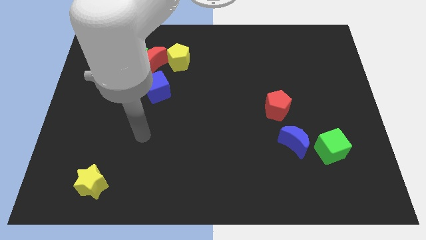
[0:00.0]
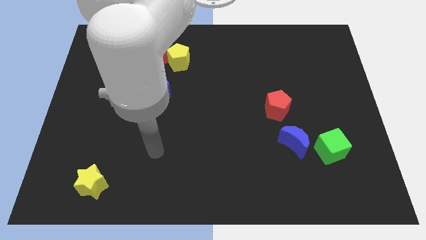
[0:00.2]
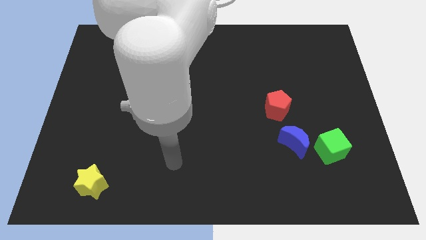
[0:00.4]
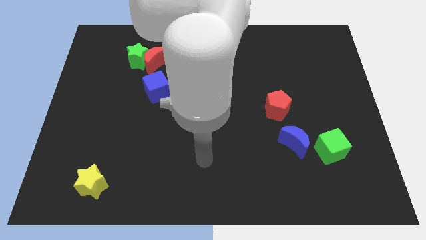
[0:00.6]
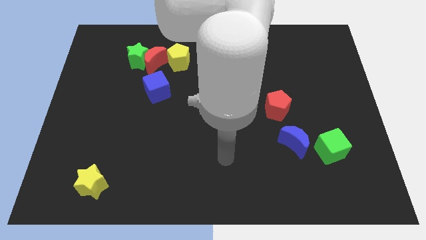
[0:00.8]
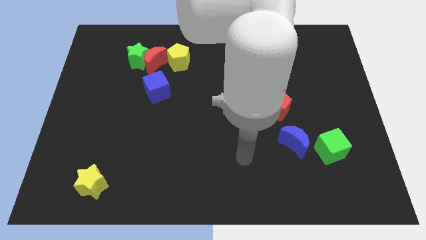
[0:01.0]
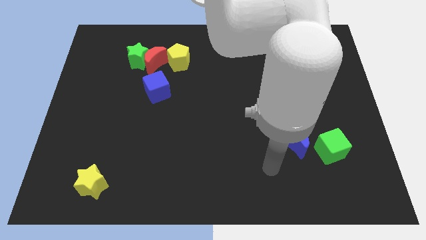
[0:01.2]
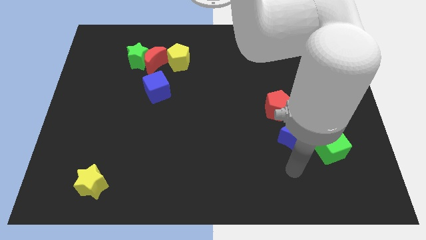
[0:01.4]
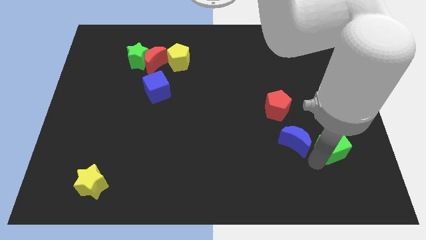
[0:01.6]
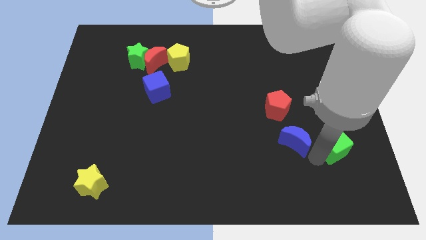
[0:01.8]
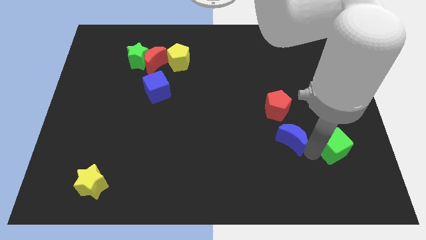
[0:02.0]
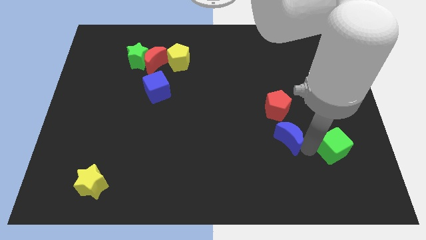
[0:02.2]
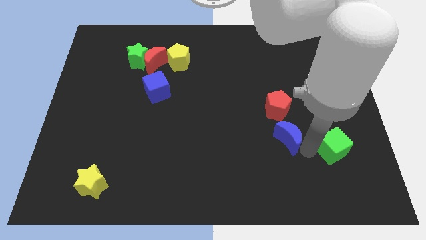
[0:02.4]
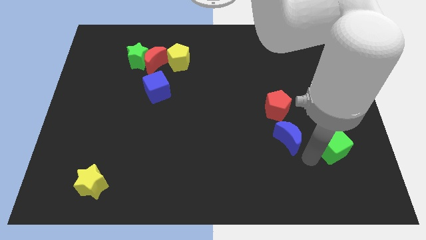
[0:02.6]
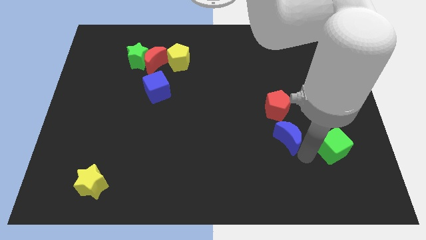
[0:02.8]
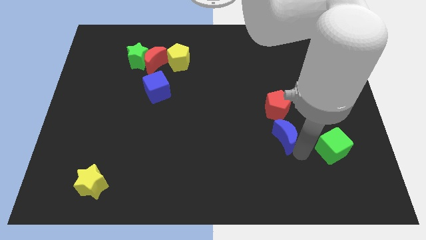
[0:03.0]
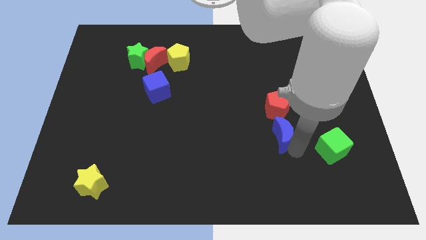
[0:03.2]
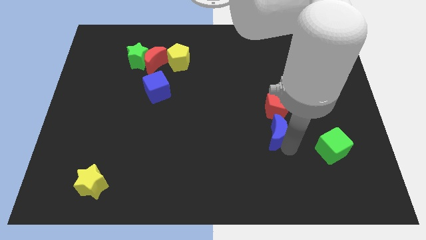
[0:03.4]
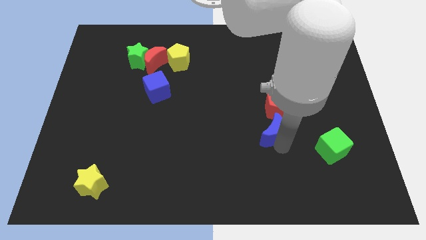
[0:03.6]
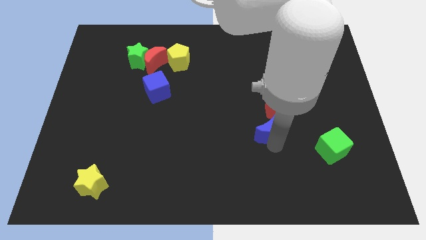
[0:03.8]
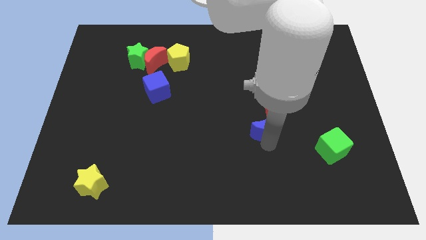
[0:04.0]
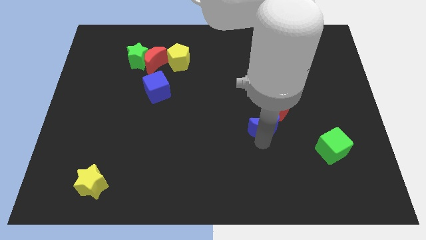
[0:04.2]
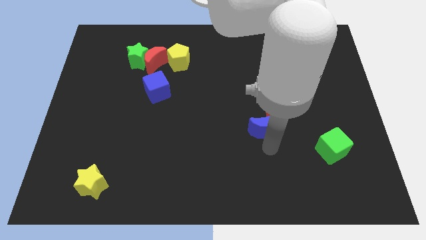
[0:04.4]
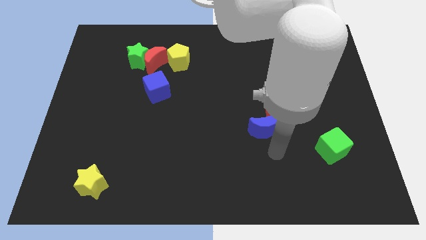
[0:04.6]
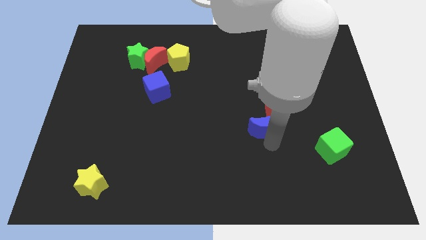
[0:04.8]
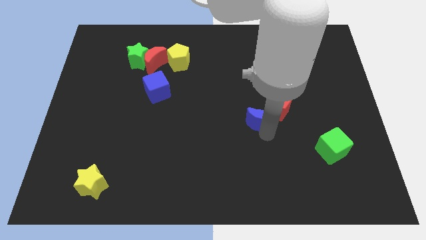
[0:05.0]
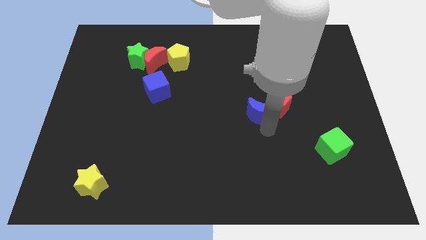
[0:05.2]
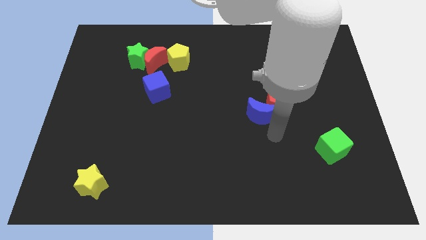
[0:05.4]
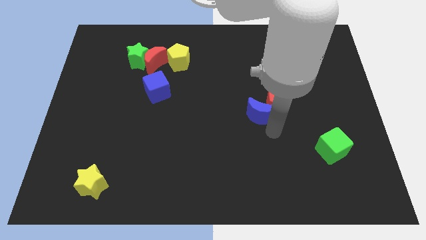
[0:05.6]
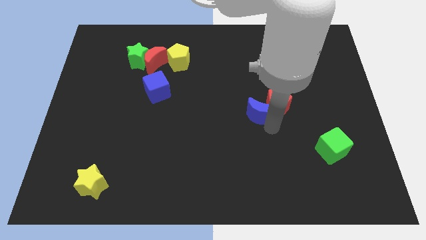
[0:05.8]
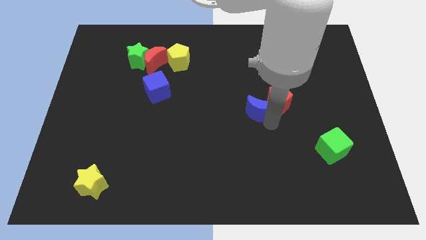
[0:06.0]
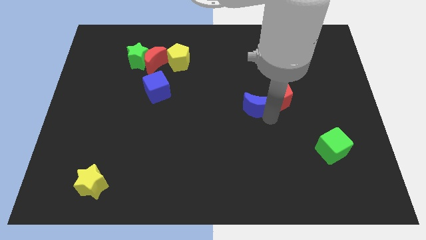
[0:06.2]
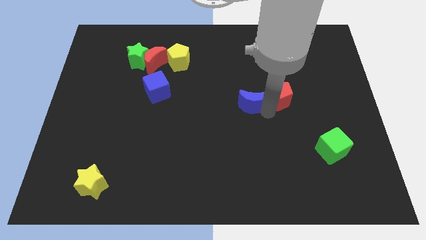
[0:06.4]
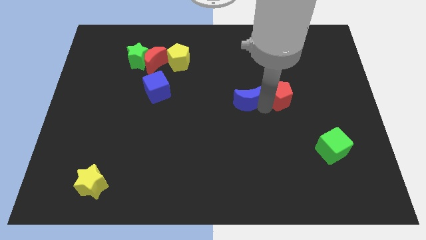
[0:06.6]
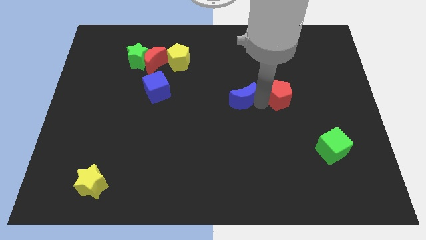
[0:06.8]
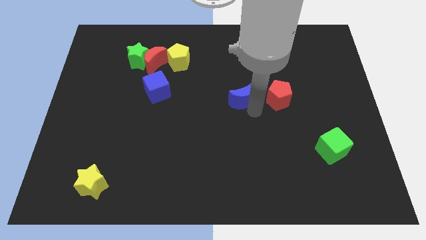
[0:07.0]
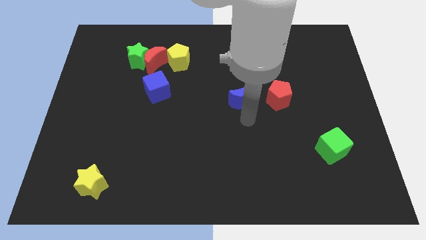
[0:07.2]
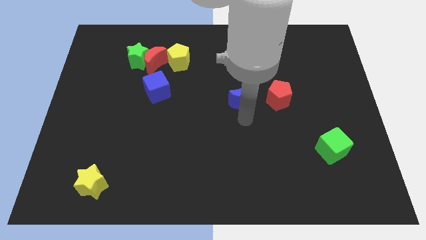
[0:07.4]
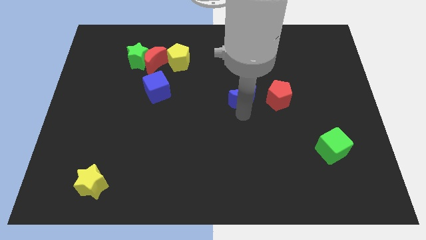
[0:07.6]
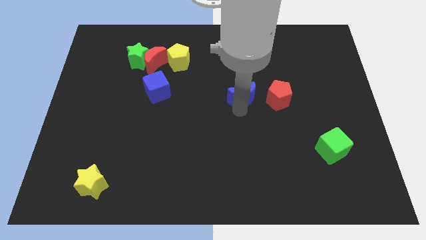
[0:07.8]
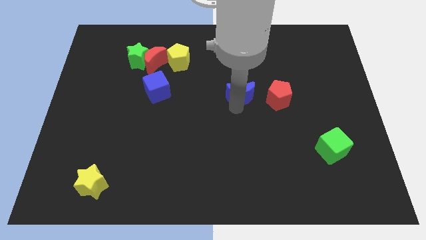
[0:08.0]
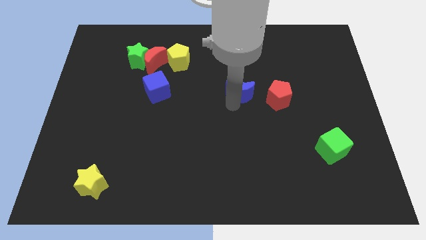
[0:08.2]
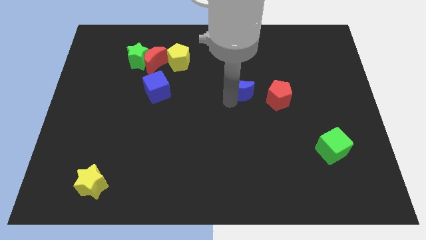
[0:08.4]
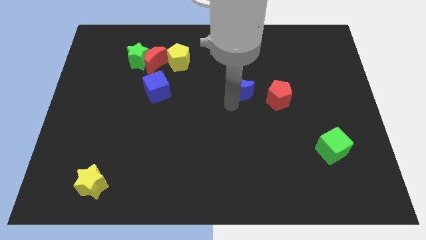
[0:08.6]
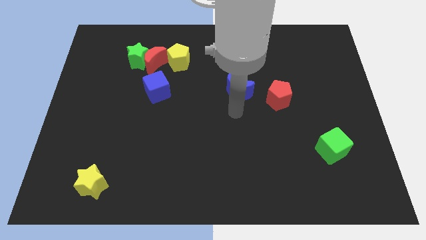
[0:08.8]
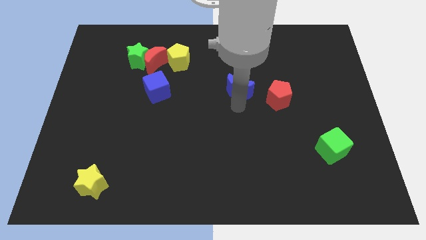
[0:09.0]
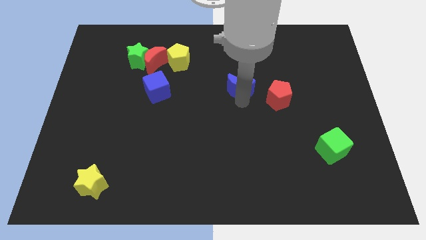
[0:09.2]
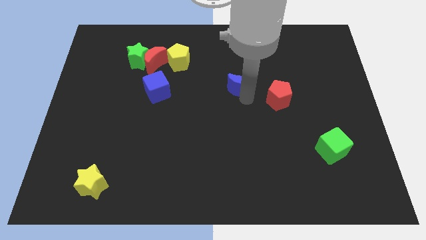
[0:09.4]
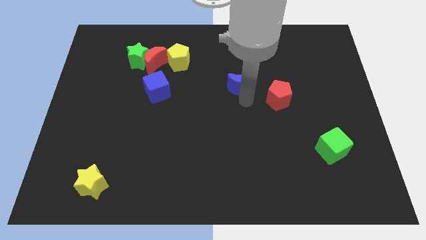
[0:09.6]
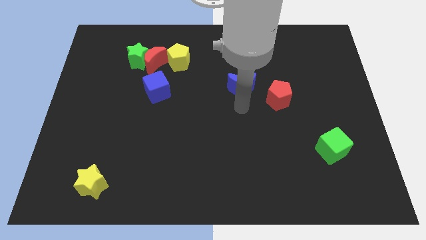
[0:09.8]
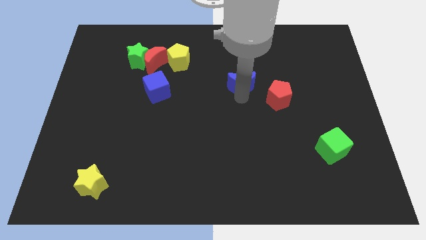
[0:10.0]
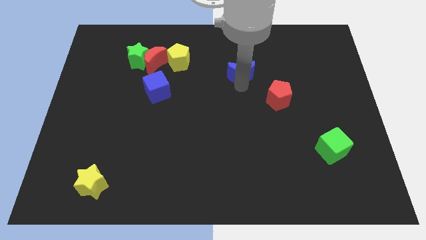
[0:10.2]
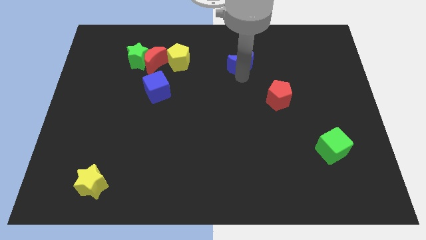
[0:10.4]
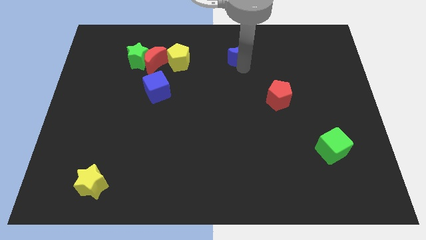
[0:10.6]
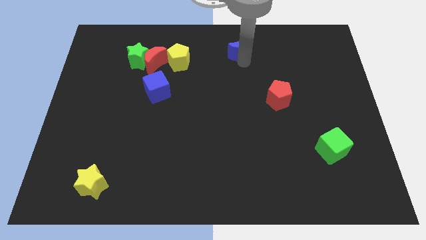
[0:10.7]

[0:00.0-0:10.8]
put the blue moon to the top

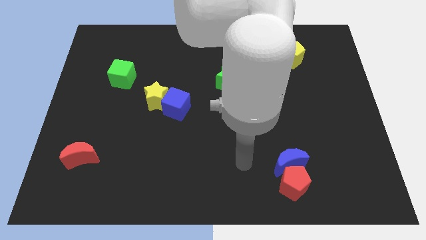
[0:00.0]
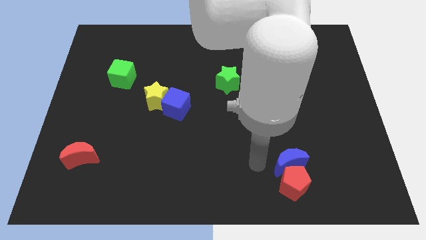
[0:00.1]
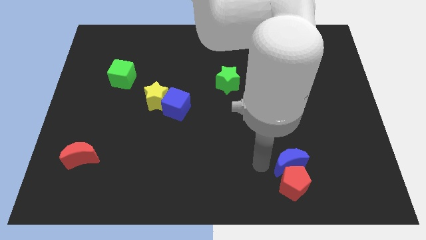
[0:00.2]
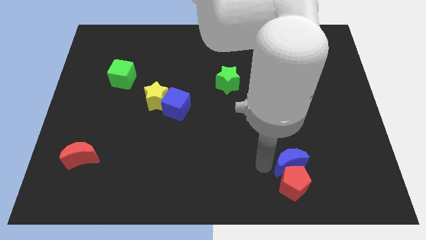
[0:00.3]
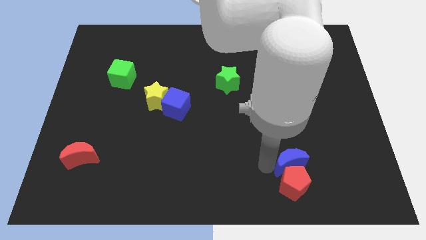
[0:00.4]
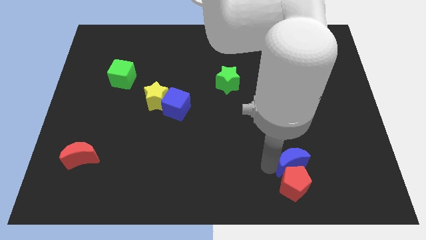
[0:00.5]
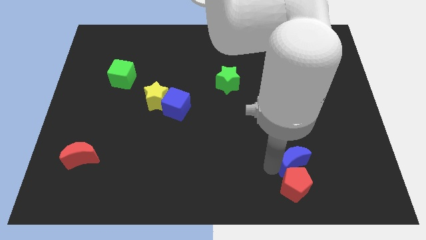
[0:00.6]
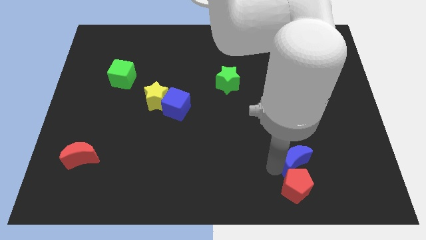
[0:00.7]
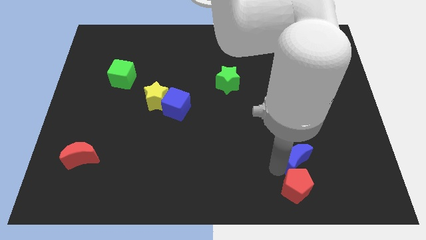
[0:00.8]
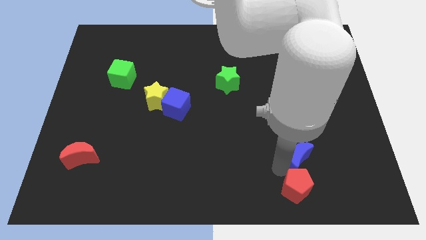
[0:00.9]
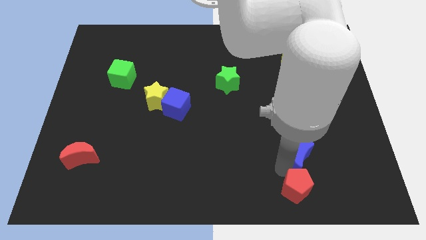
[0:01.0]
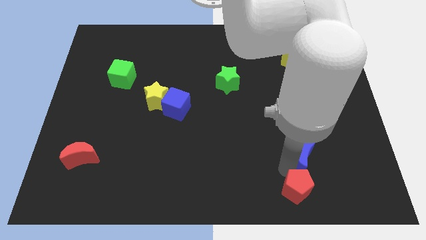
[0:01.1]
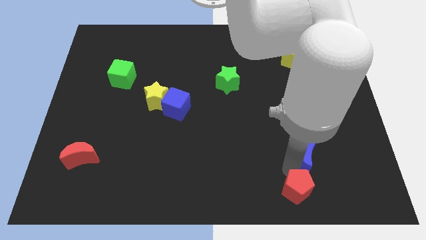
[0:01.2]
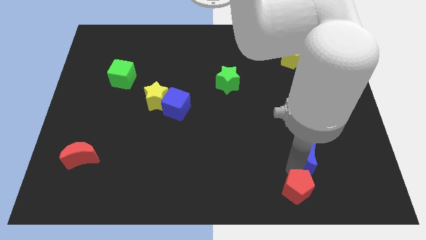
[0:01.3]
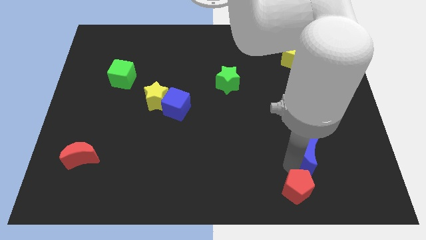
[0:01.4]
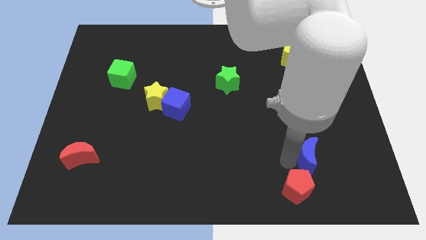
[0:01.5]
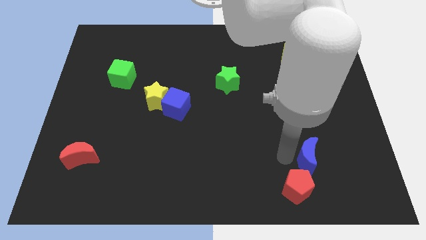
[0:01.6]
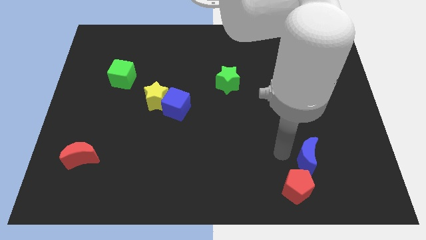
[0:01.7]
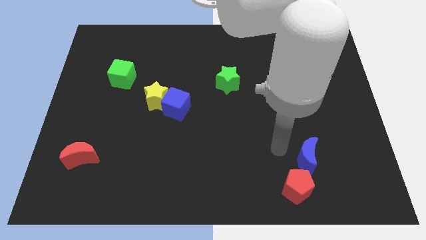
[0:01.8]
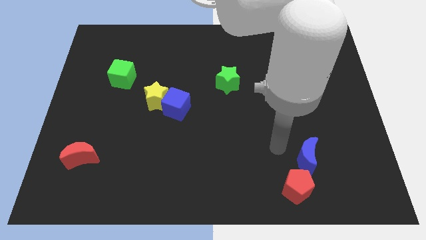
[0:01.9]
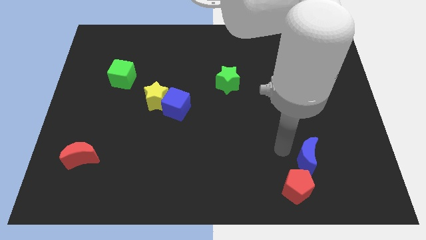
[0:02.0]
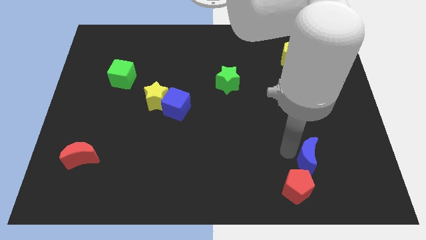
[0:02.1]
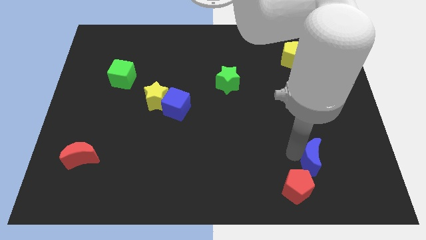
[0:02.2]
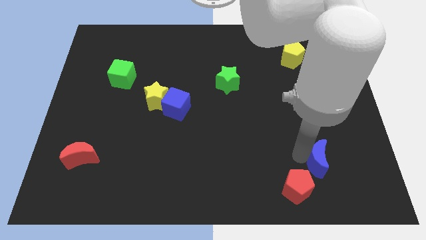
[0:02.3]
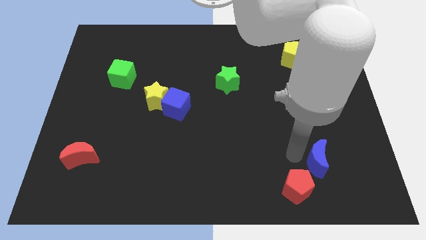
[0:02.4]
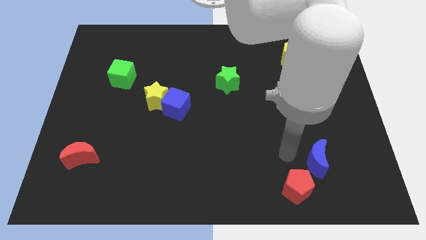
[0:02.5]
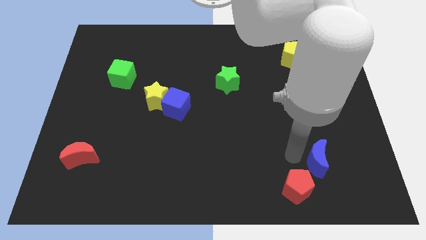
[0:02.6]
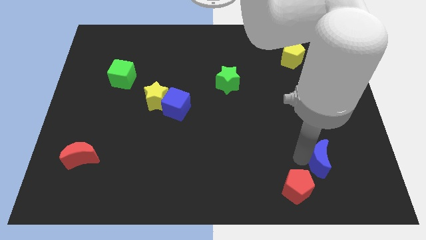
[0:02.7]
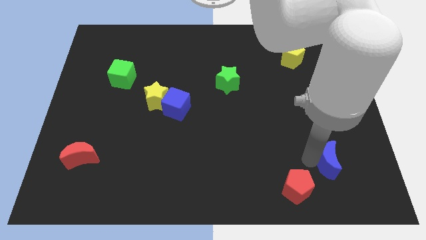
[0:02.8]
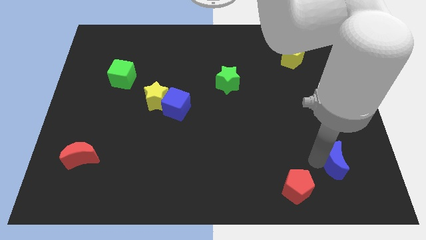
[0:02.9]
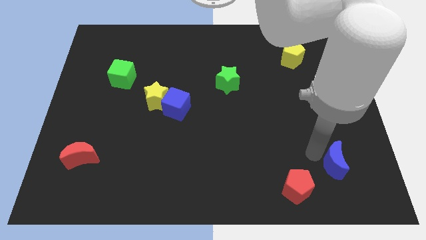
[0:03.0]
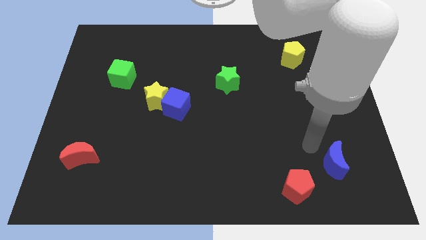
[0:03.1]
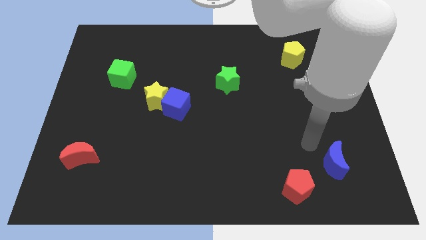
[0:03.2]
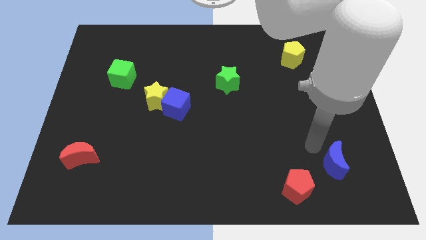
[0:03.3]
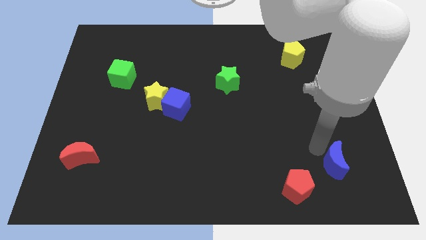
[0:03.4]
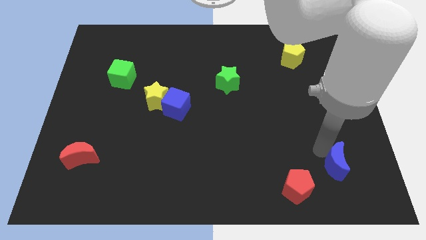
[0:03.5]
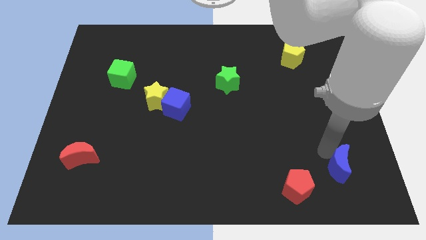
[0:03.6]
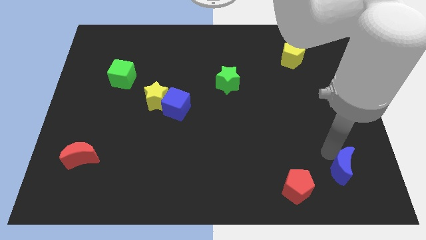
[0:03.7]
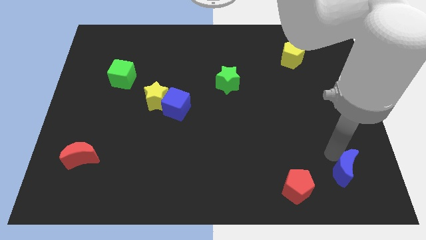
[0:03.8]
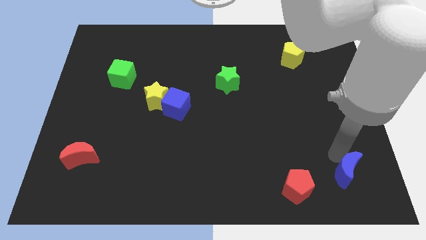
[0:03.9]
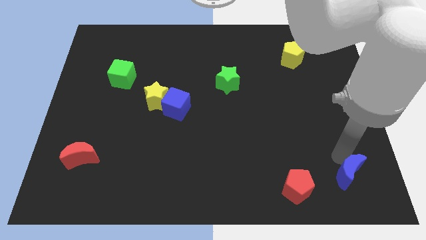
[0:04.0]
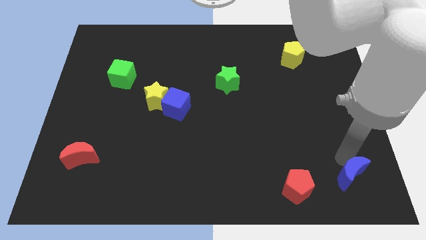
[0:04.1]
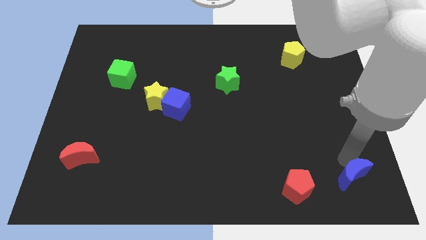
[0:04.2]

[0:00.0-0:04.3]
slide the blue moon to the bottom right corner
